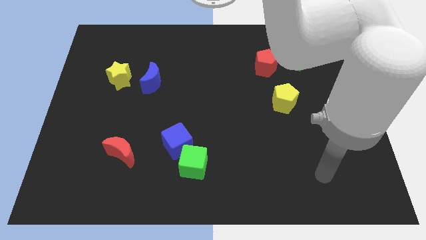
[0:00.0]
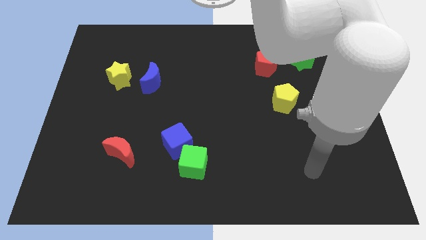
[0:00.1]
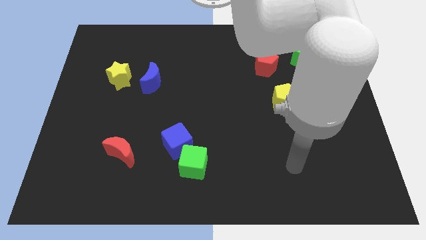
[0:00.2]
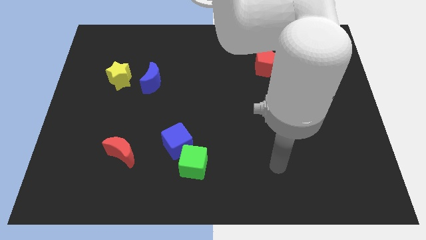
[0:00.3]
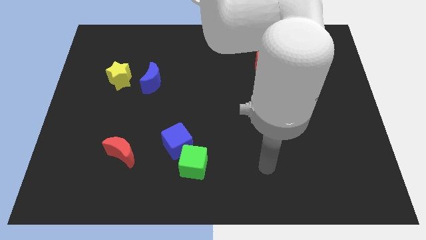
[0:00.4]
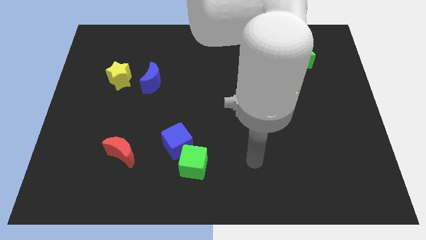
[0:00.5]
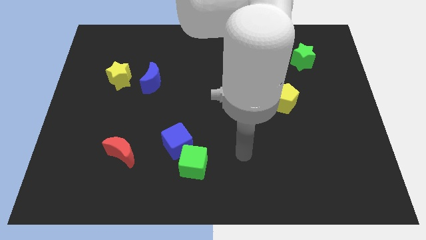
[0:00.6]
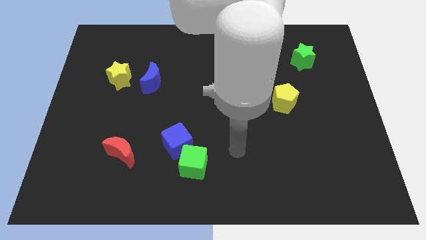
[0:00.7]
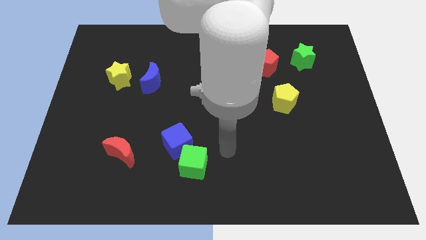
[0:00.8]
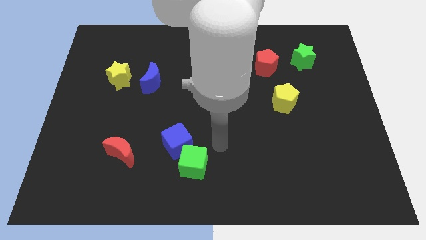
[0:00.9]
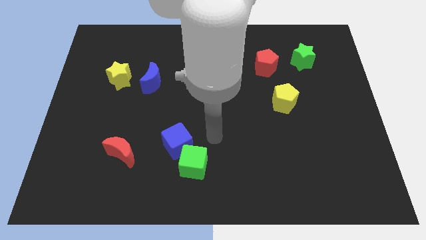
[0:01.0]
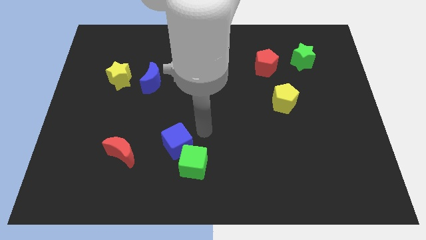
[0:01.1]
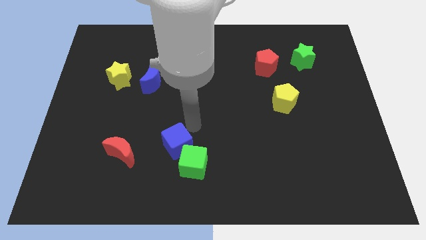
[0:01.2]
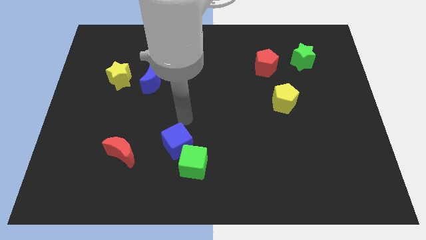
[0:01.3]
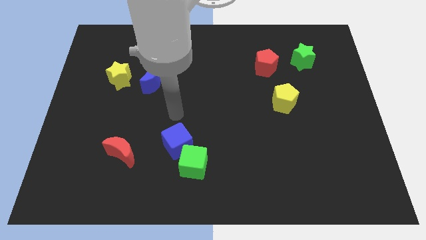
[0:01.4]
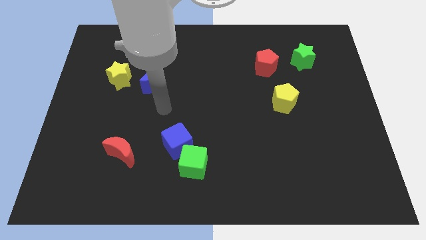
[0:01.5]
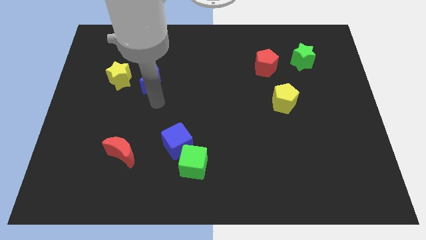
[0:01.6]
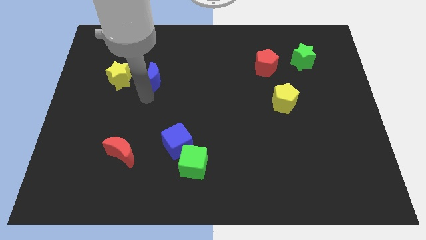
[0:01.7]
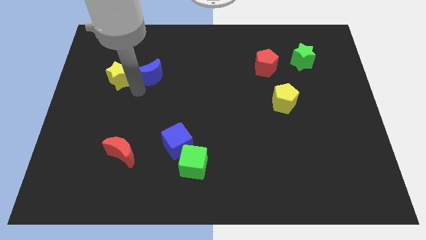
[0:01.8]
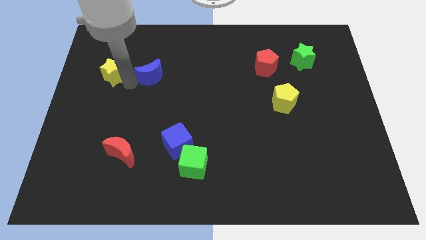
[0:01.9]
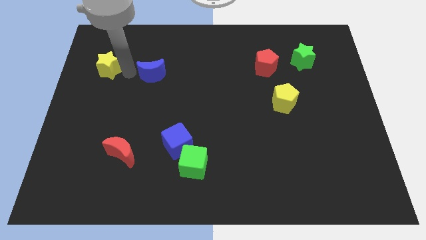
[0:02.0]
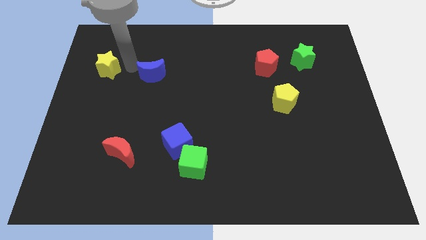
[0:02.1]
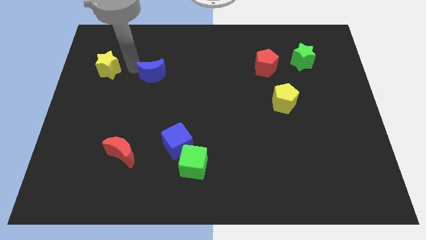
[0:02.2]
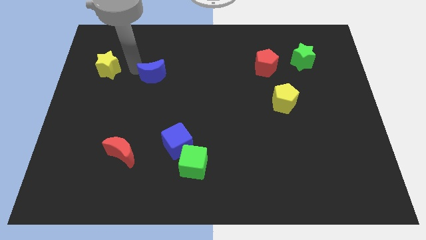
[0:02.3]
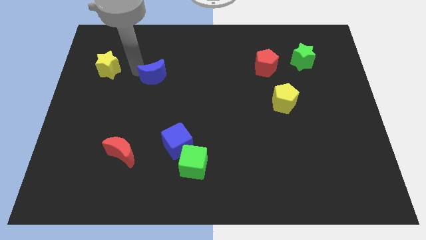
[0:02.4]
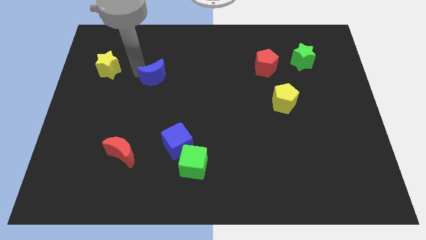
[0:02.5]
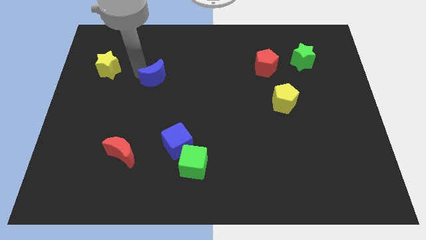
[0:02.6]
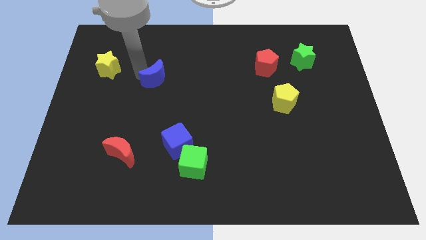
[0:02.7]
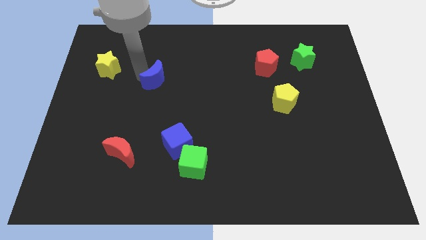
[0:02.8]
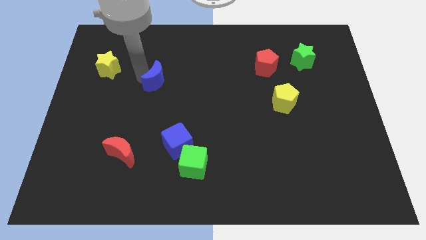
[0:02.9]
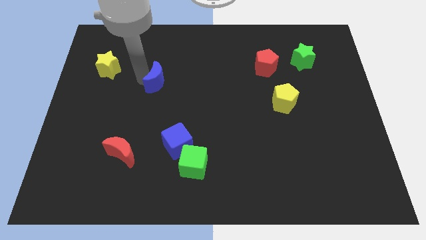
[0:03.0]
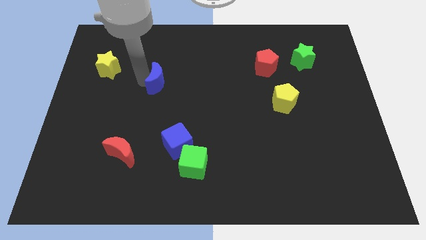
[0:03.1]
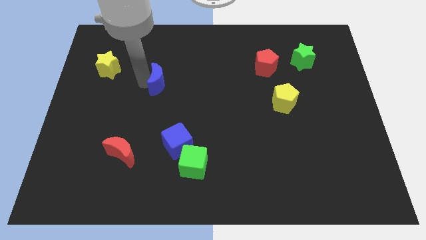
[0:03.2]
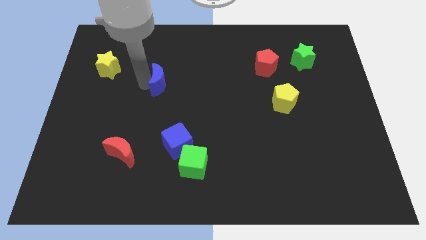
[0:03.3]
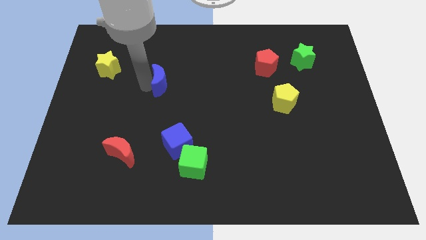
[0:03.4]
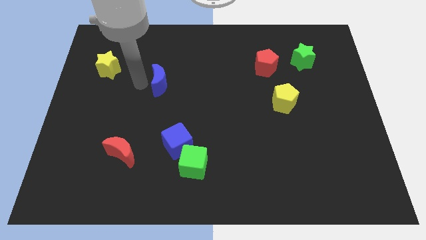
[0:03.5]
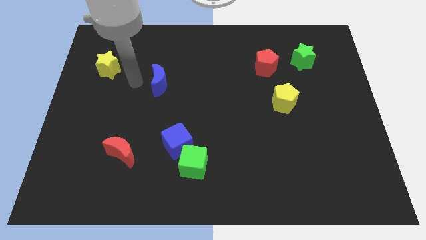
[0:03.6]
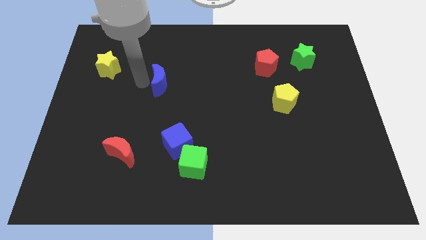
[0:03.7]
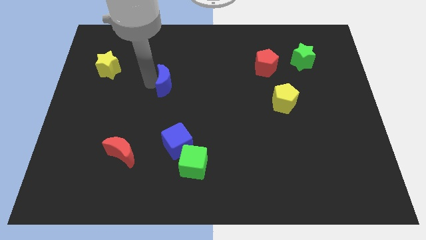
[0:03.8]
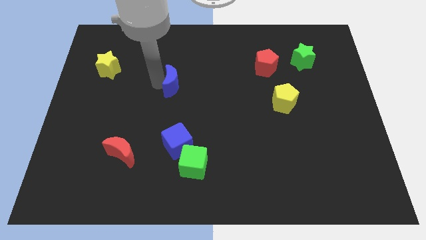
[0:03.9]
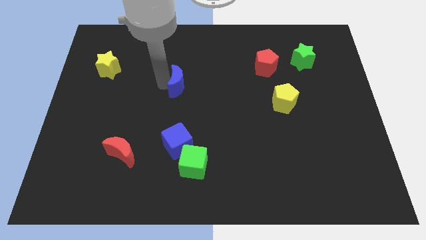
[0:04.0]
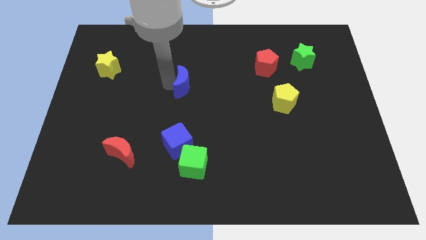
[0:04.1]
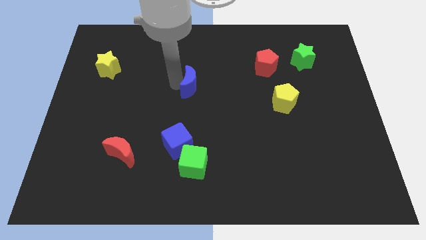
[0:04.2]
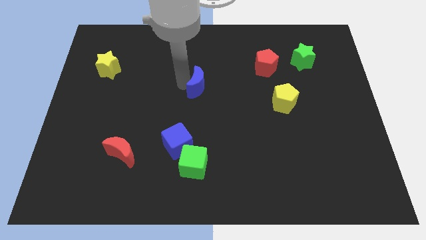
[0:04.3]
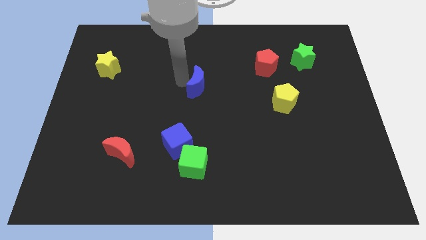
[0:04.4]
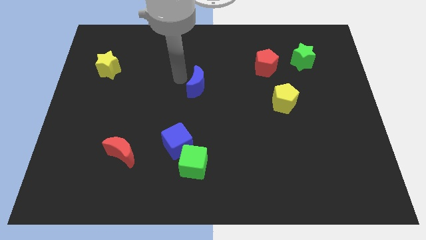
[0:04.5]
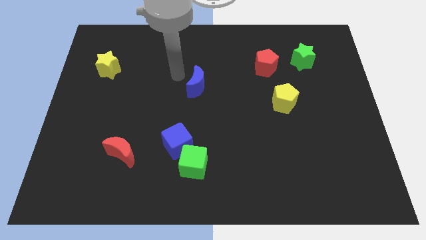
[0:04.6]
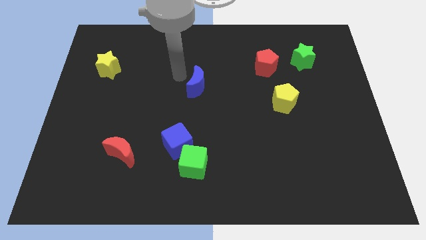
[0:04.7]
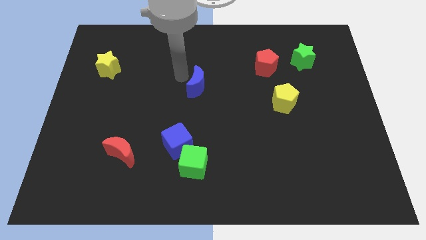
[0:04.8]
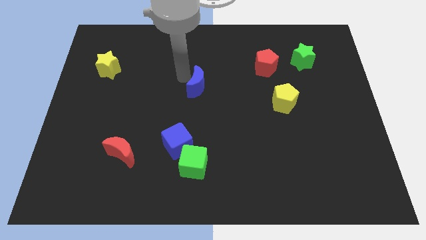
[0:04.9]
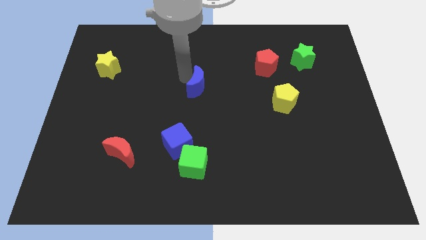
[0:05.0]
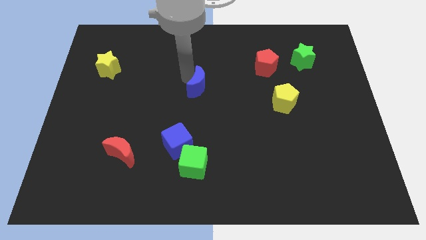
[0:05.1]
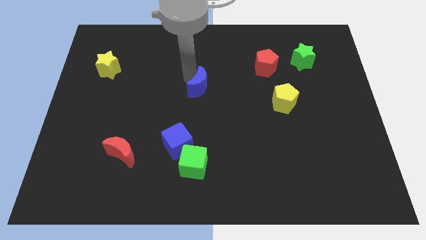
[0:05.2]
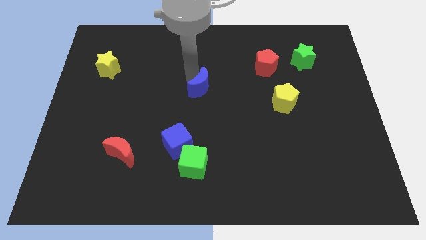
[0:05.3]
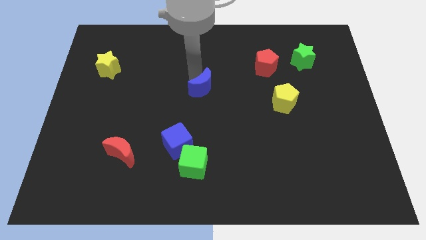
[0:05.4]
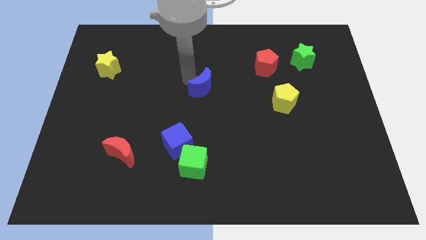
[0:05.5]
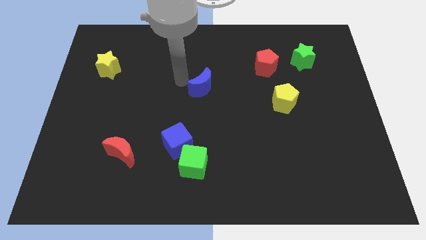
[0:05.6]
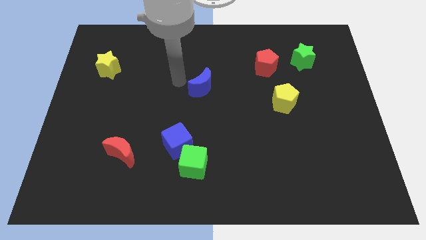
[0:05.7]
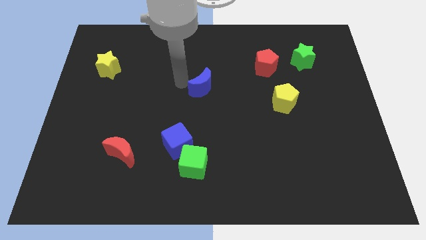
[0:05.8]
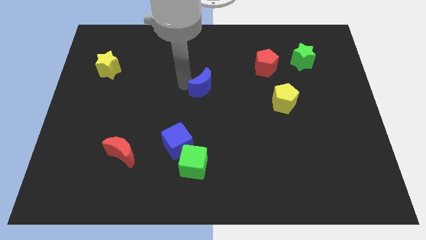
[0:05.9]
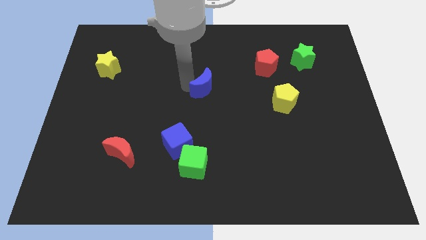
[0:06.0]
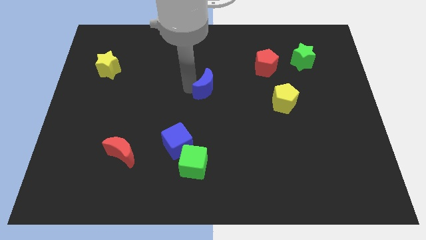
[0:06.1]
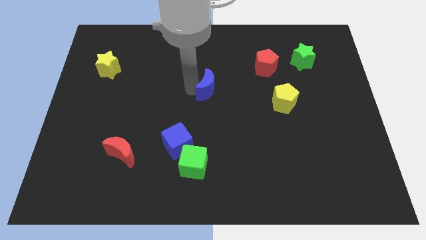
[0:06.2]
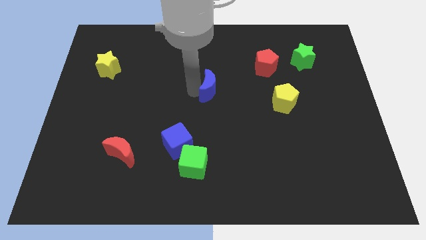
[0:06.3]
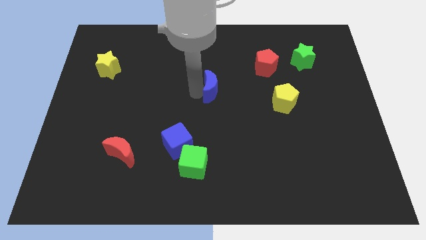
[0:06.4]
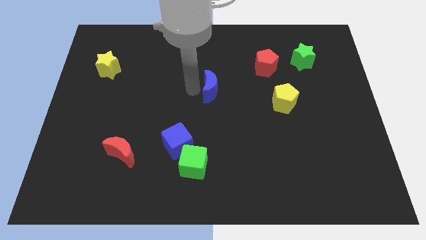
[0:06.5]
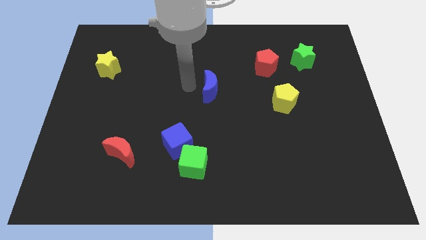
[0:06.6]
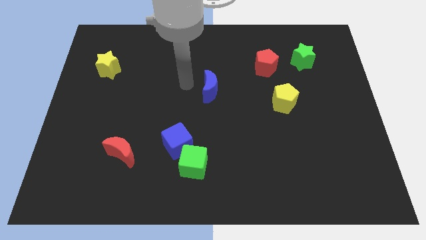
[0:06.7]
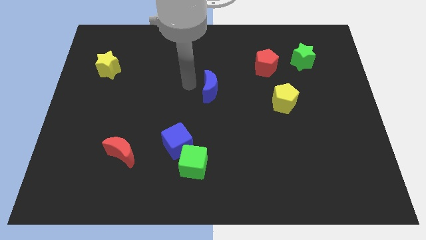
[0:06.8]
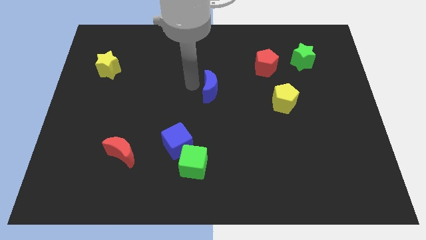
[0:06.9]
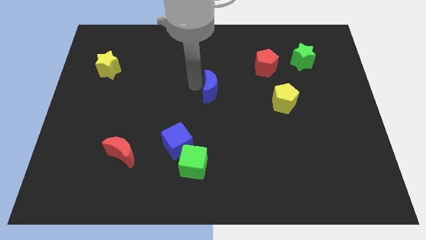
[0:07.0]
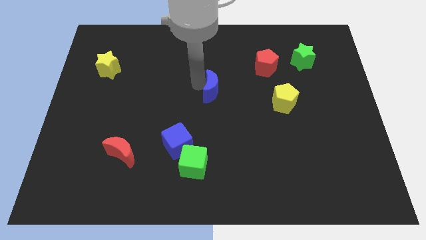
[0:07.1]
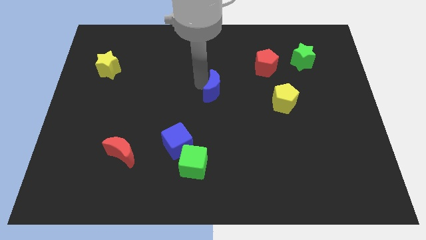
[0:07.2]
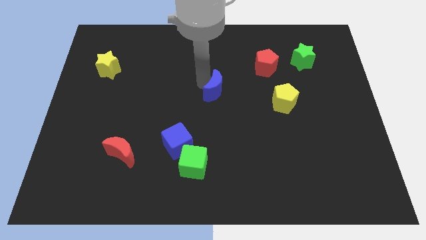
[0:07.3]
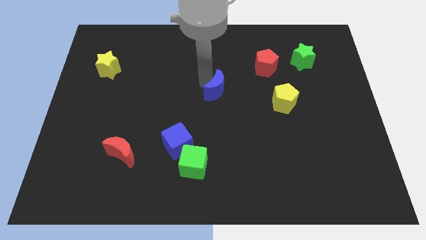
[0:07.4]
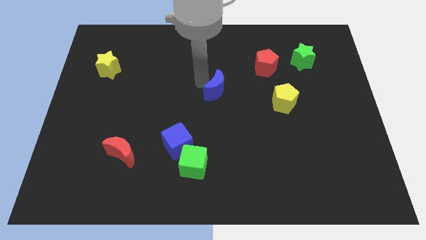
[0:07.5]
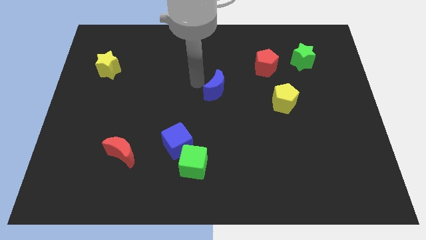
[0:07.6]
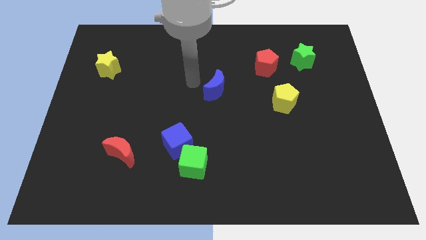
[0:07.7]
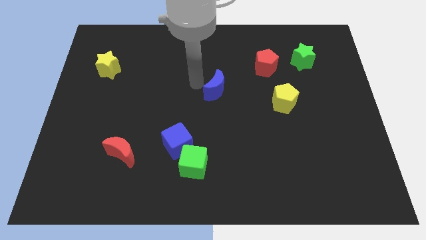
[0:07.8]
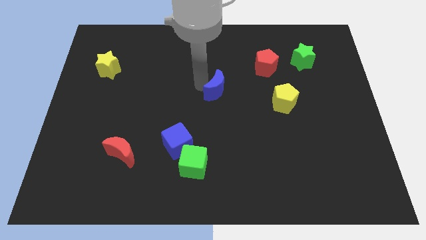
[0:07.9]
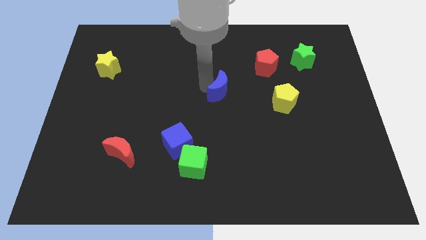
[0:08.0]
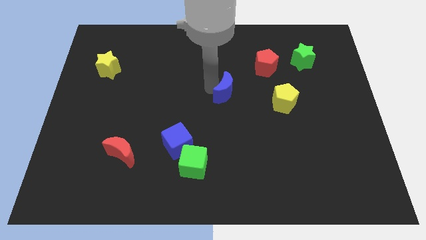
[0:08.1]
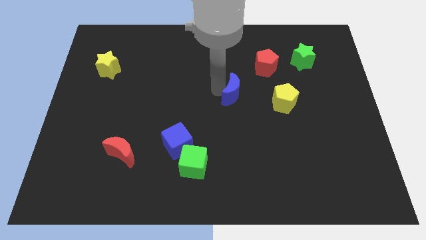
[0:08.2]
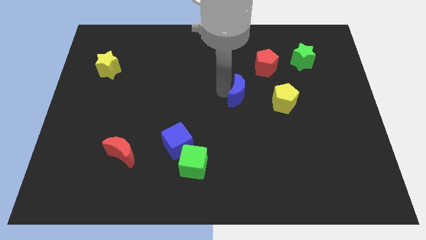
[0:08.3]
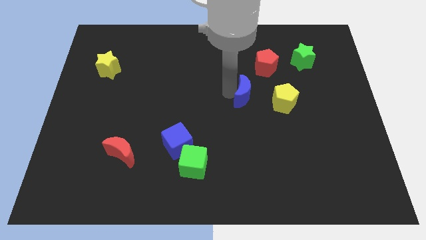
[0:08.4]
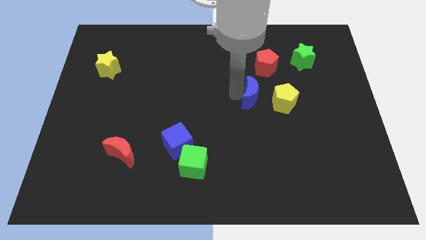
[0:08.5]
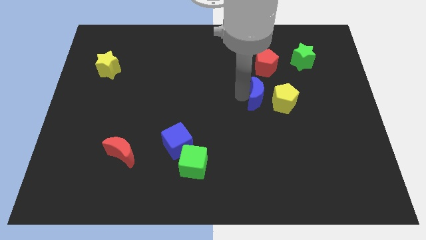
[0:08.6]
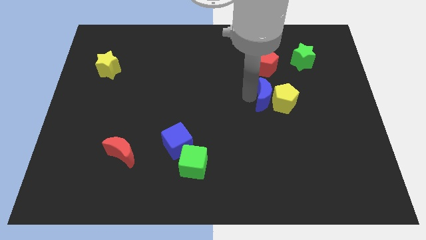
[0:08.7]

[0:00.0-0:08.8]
push the blue moon towards the yellow pentagon
